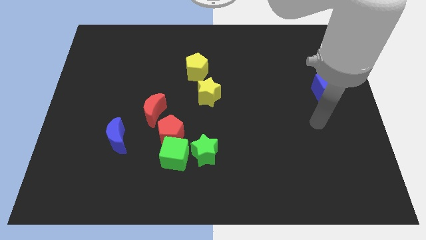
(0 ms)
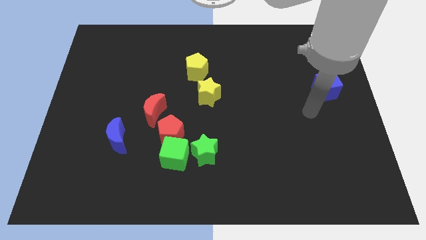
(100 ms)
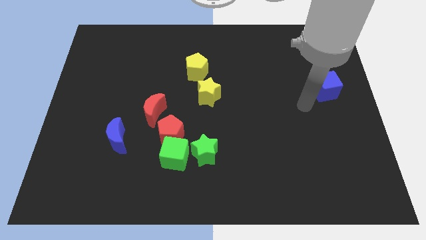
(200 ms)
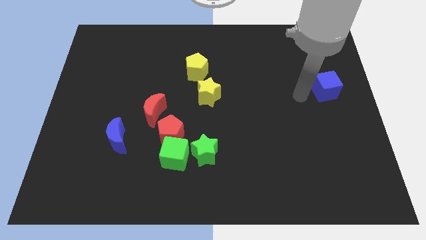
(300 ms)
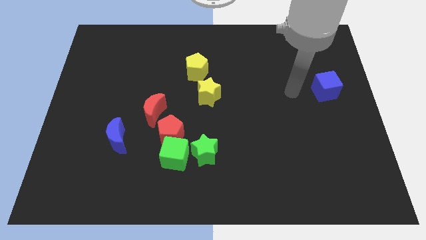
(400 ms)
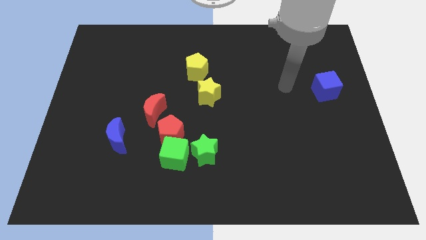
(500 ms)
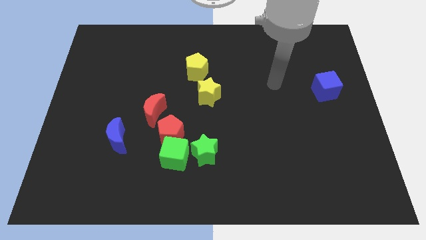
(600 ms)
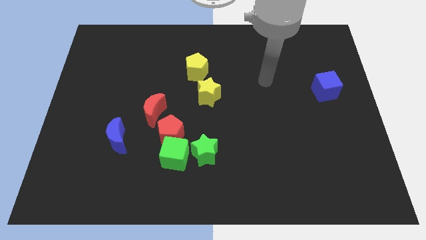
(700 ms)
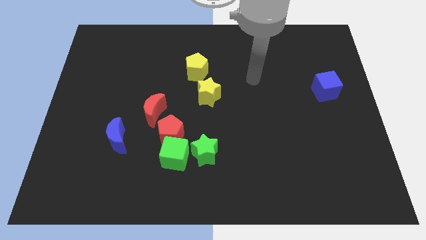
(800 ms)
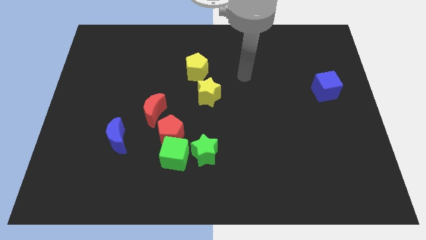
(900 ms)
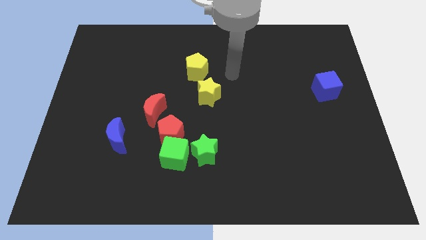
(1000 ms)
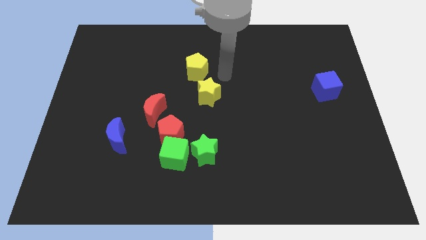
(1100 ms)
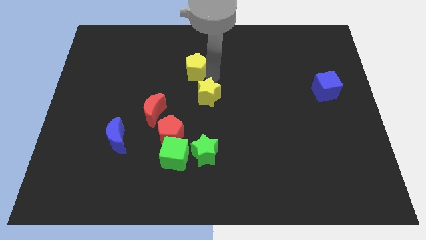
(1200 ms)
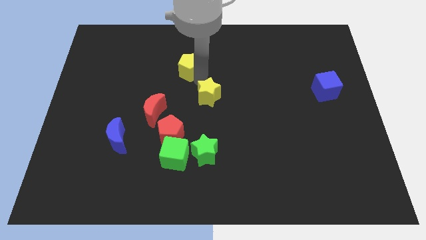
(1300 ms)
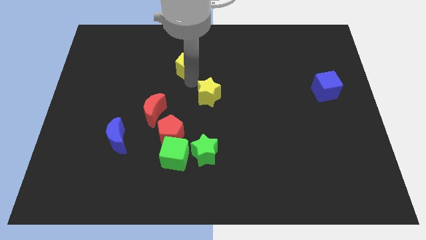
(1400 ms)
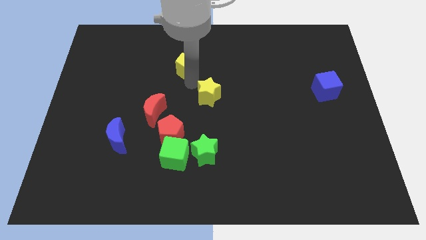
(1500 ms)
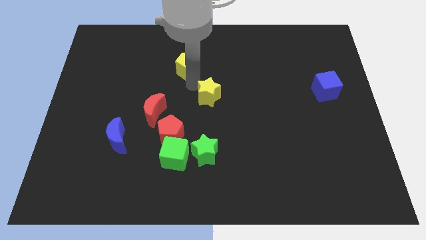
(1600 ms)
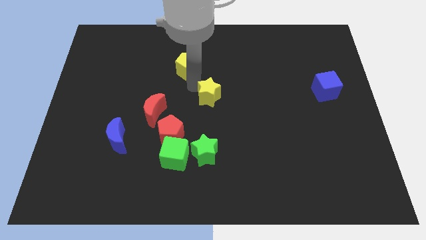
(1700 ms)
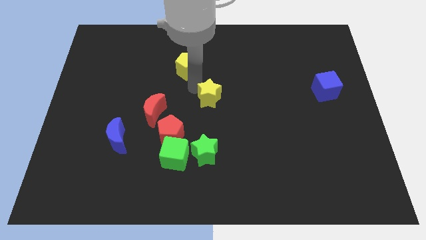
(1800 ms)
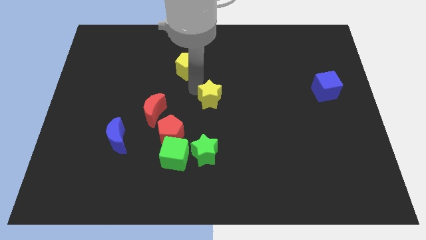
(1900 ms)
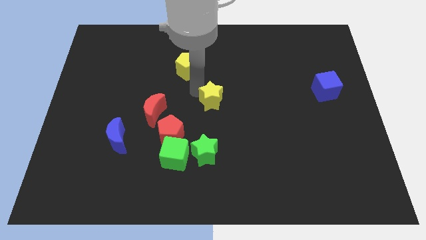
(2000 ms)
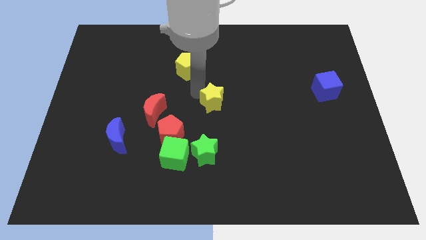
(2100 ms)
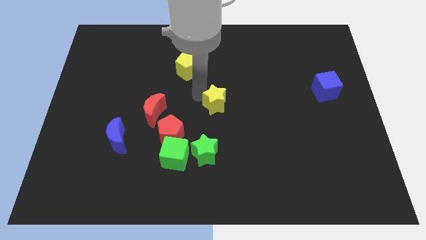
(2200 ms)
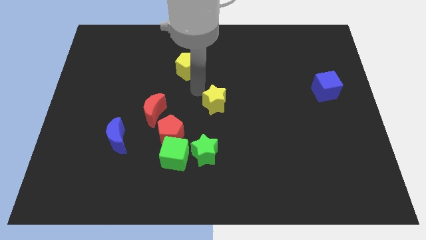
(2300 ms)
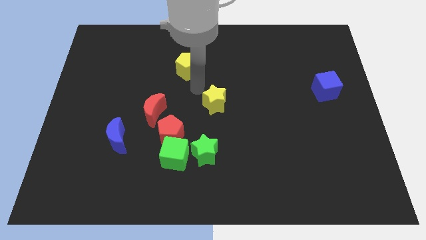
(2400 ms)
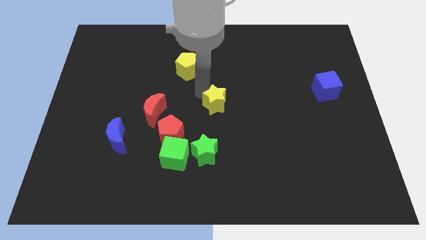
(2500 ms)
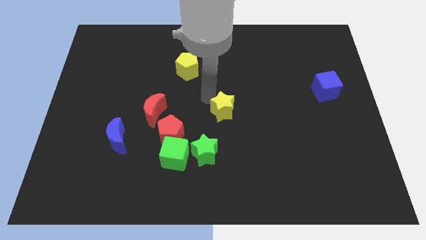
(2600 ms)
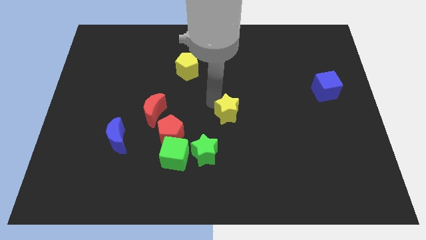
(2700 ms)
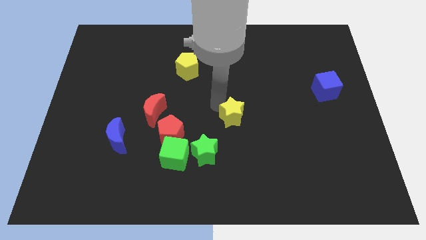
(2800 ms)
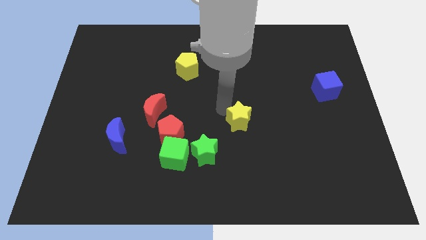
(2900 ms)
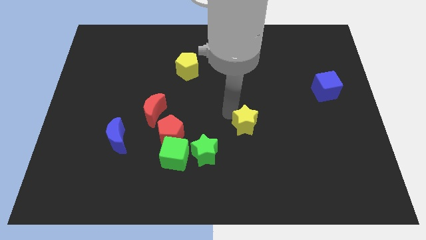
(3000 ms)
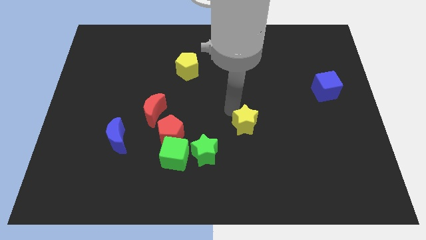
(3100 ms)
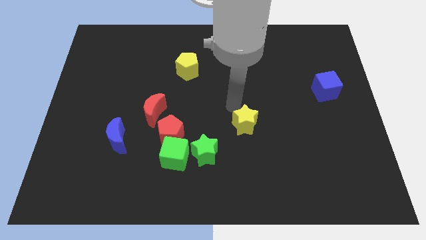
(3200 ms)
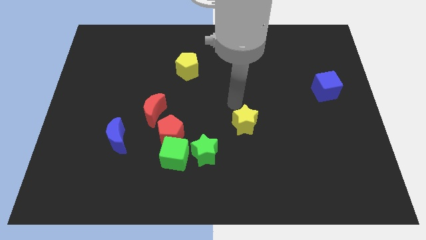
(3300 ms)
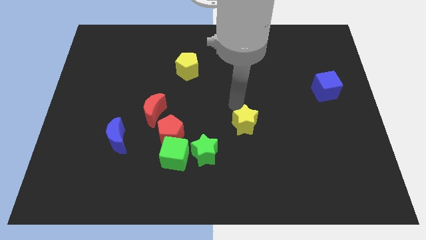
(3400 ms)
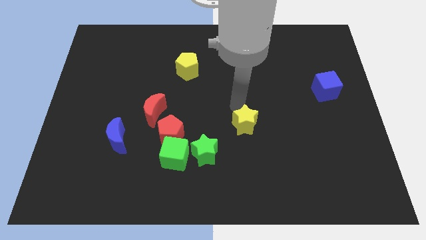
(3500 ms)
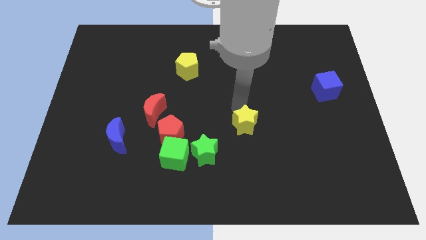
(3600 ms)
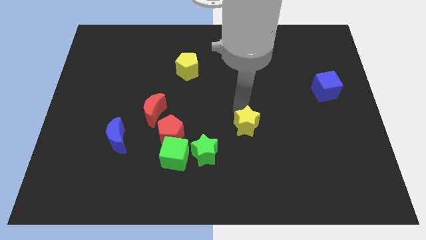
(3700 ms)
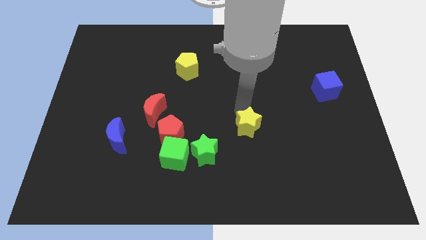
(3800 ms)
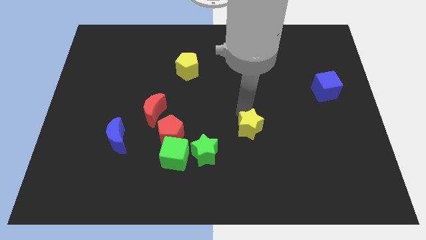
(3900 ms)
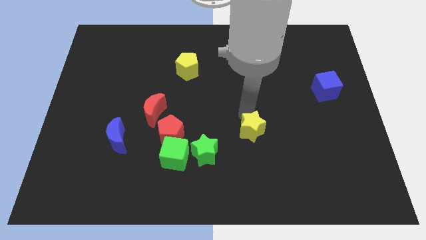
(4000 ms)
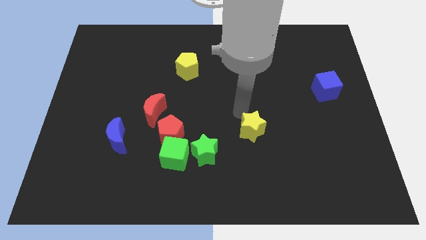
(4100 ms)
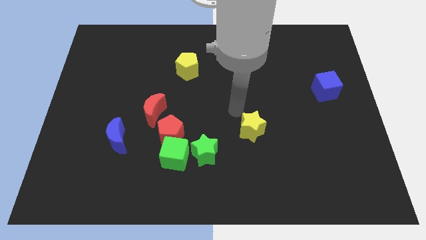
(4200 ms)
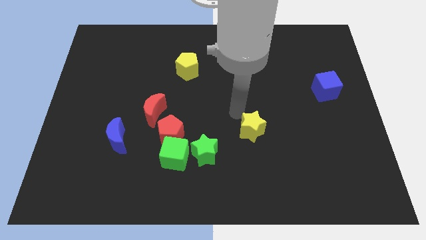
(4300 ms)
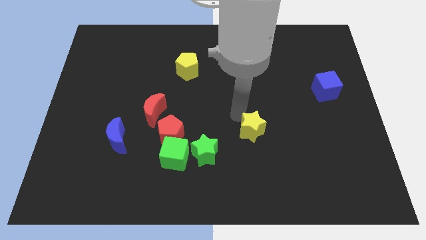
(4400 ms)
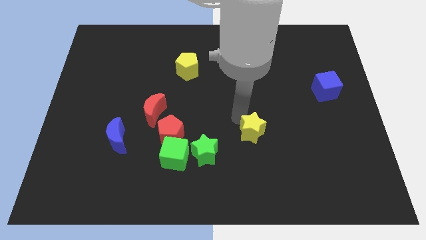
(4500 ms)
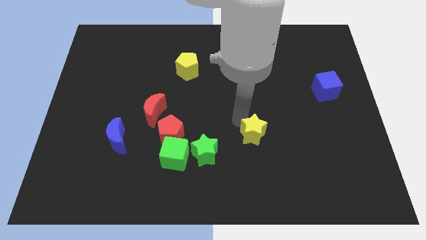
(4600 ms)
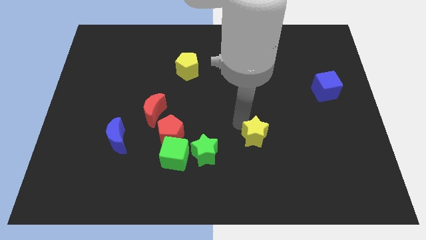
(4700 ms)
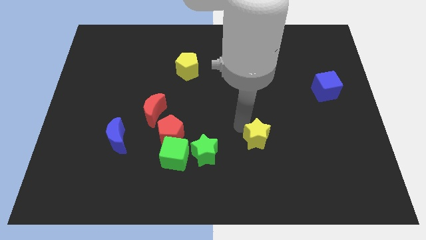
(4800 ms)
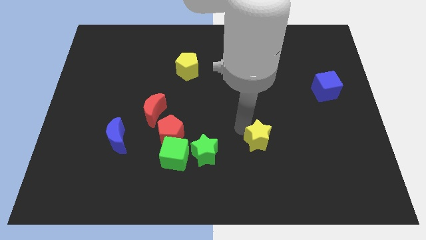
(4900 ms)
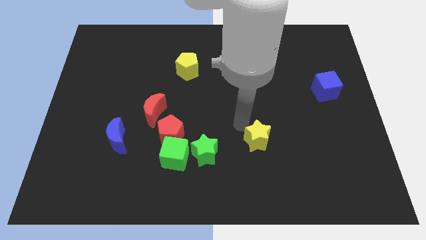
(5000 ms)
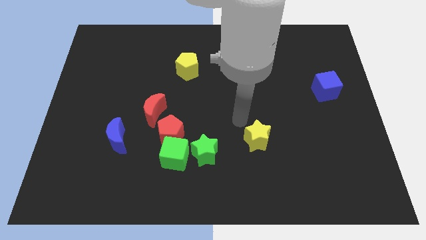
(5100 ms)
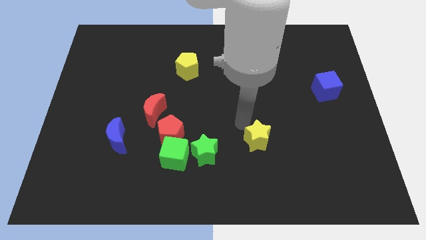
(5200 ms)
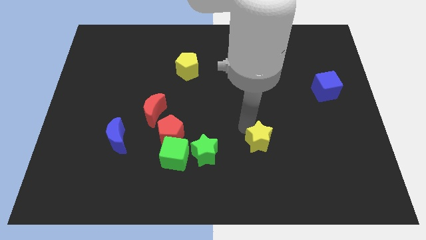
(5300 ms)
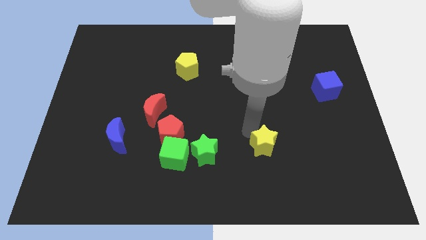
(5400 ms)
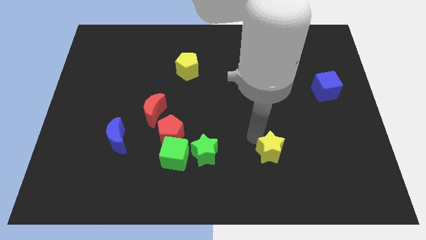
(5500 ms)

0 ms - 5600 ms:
slide the yellow star down and right diagonally

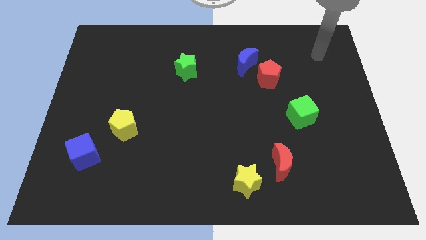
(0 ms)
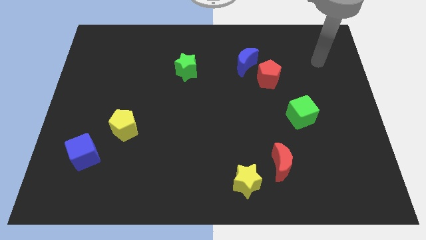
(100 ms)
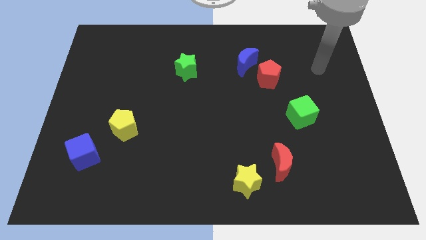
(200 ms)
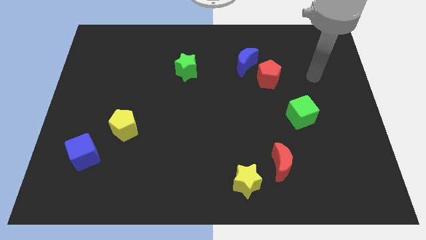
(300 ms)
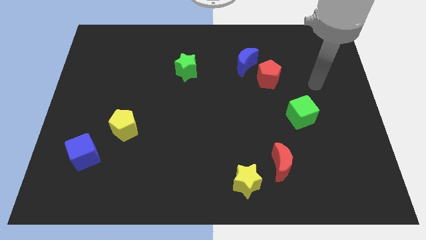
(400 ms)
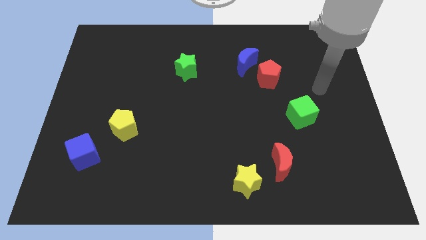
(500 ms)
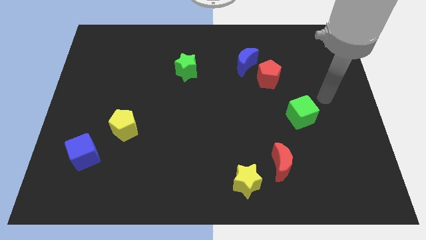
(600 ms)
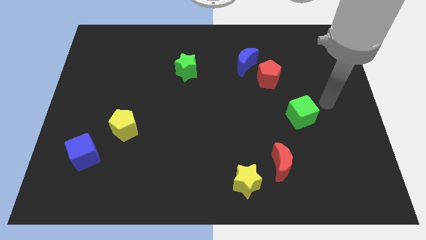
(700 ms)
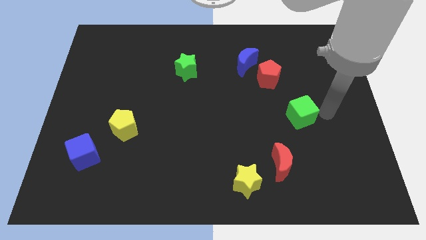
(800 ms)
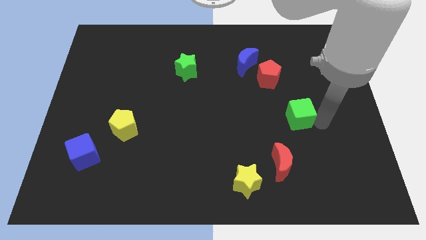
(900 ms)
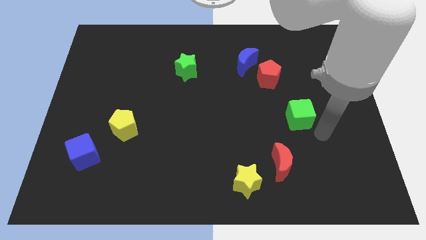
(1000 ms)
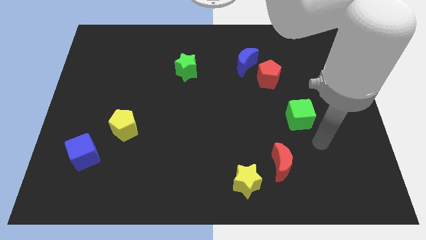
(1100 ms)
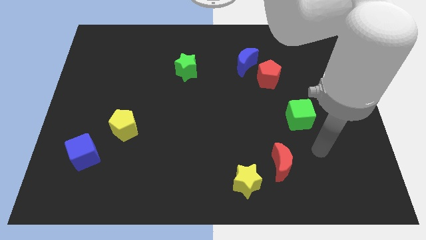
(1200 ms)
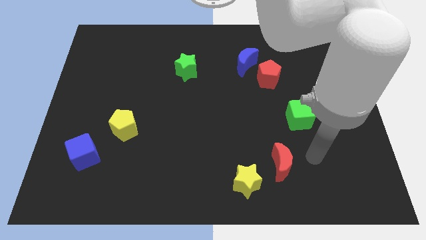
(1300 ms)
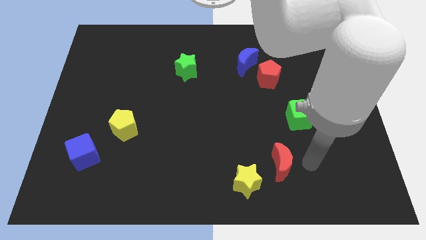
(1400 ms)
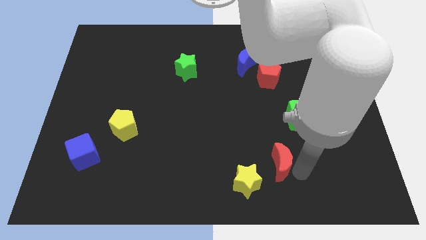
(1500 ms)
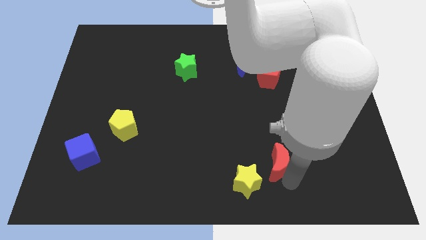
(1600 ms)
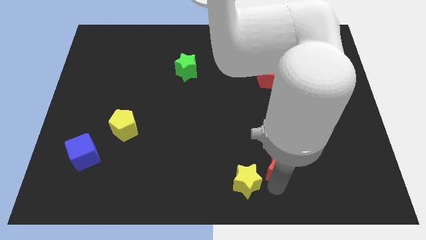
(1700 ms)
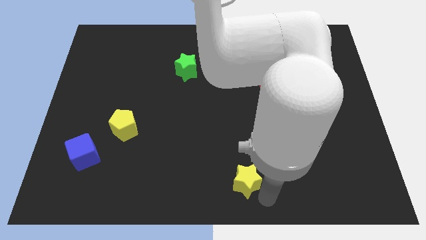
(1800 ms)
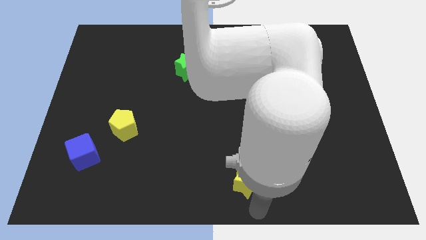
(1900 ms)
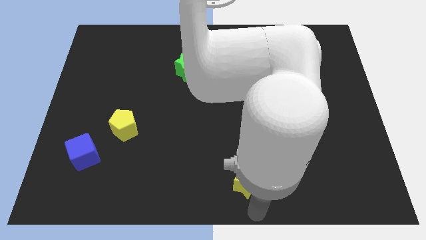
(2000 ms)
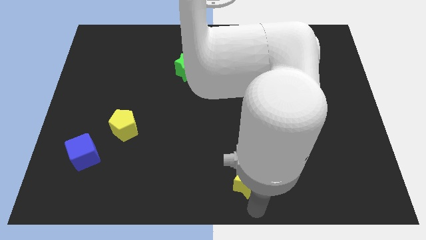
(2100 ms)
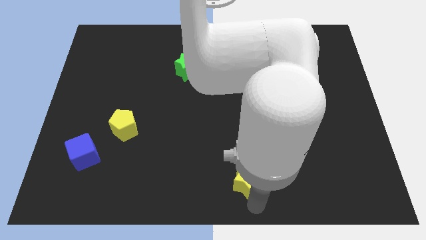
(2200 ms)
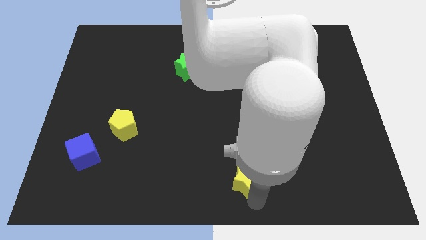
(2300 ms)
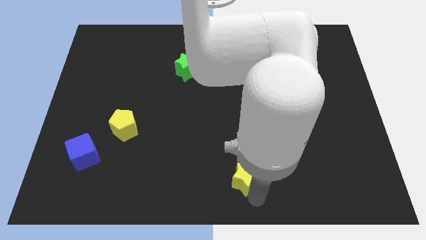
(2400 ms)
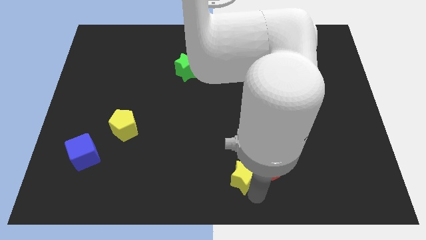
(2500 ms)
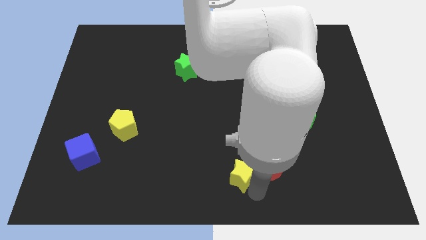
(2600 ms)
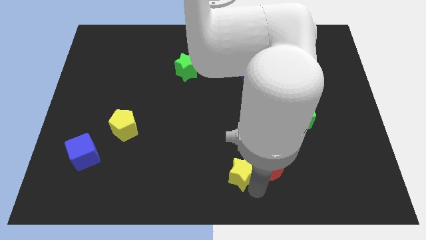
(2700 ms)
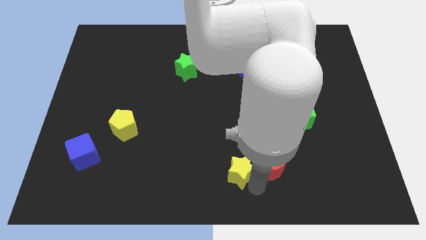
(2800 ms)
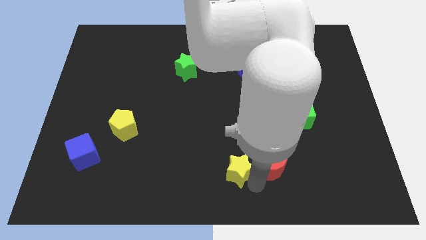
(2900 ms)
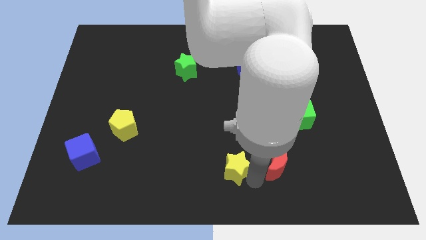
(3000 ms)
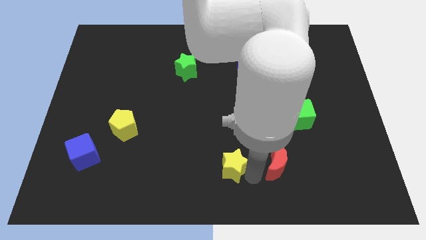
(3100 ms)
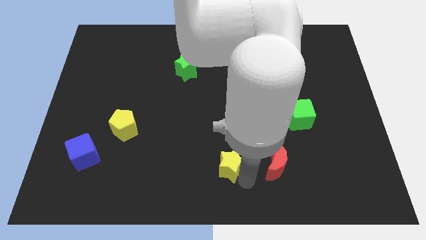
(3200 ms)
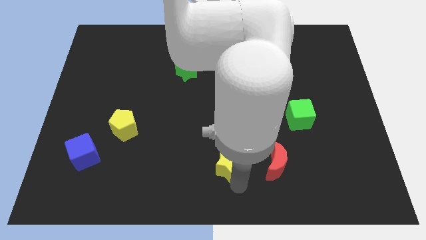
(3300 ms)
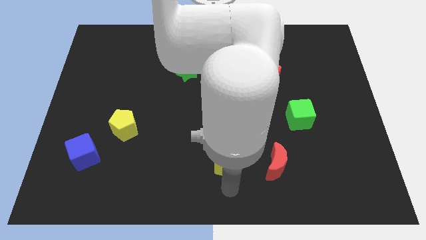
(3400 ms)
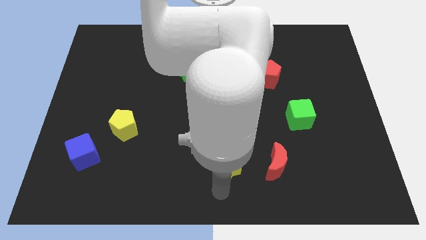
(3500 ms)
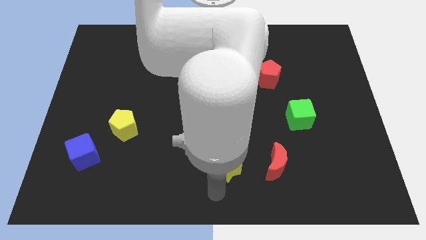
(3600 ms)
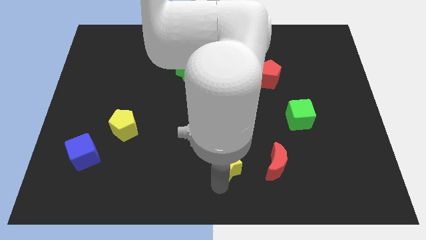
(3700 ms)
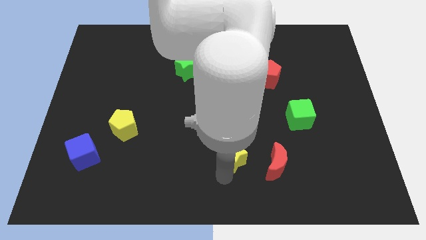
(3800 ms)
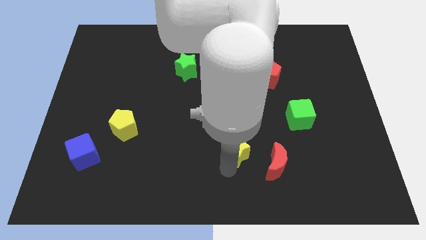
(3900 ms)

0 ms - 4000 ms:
slide the yellow star a little upwards
